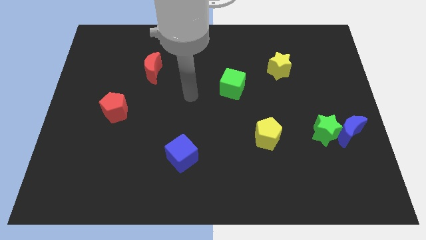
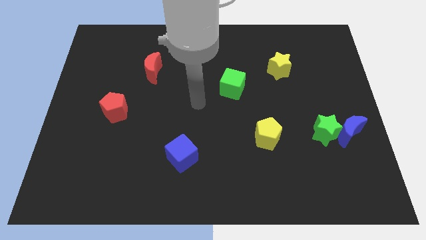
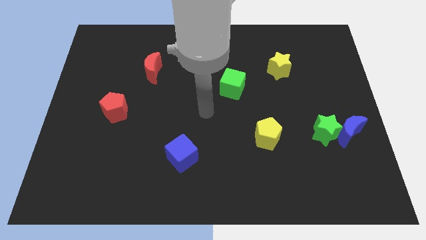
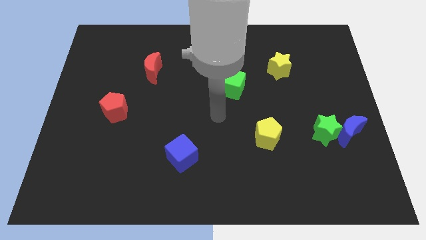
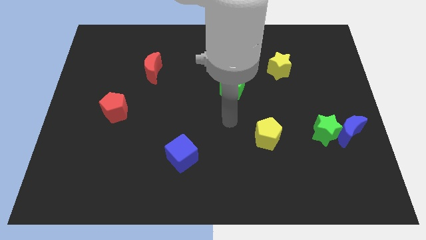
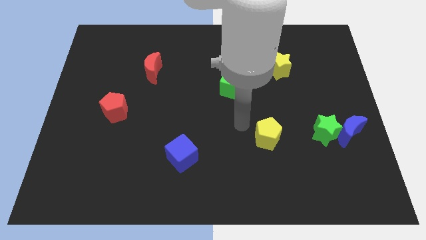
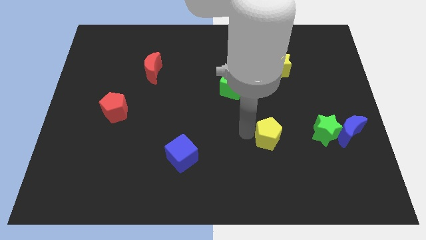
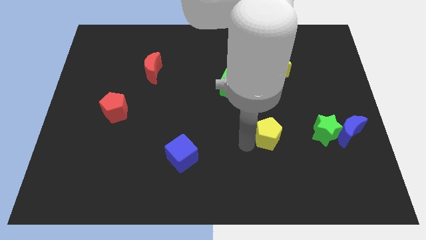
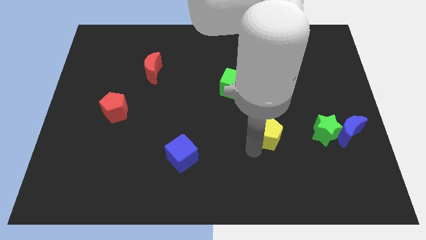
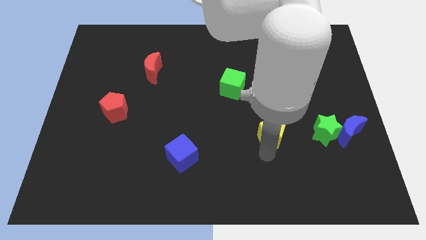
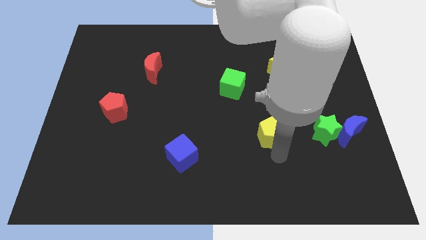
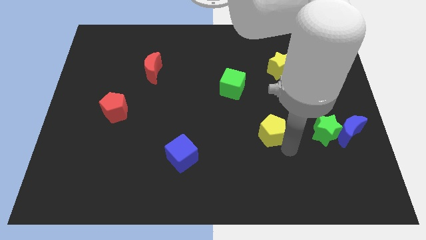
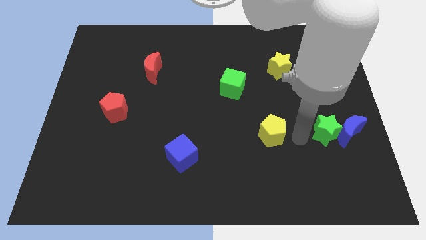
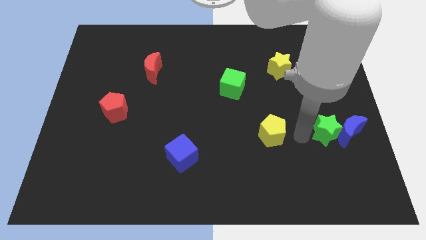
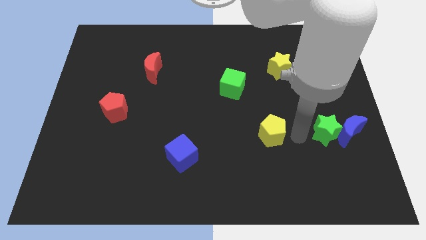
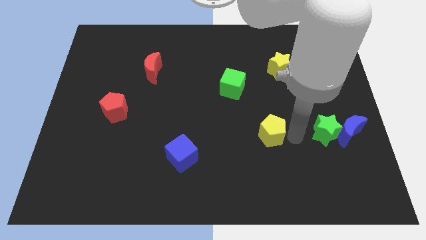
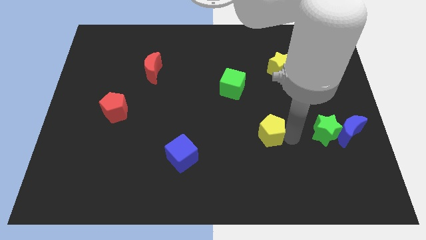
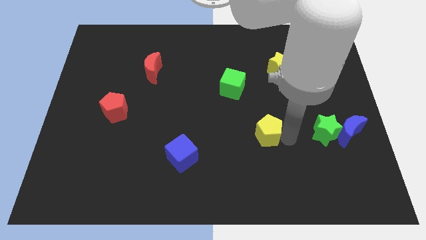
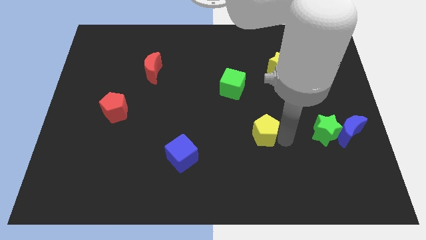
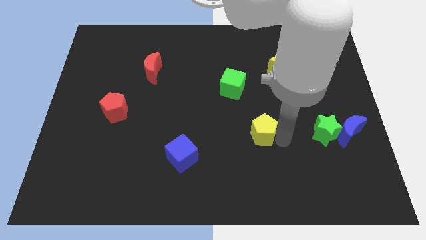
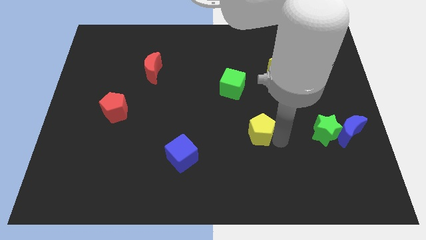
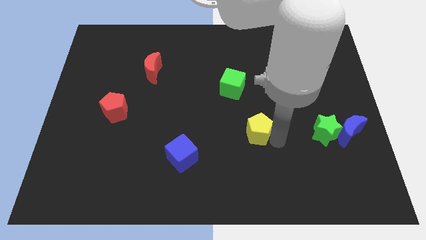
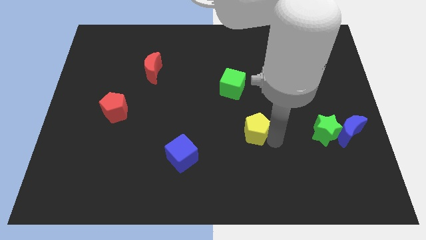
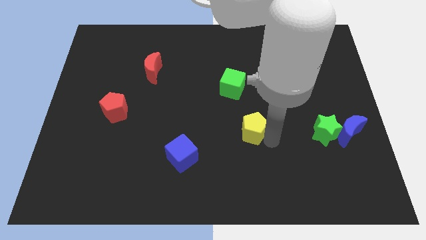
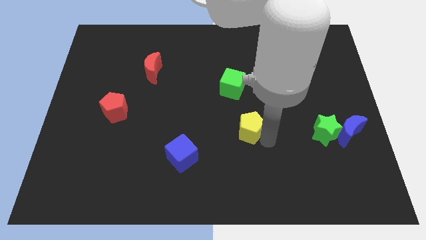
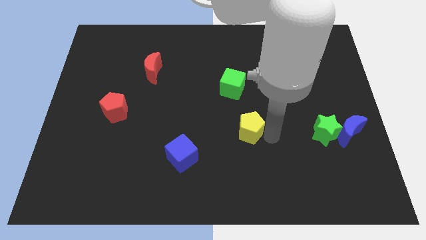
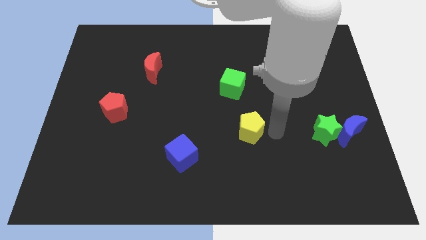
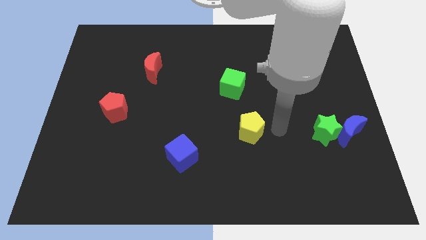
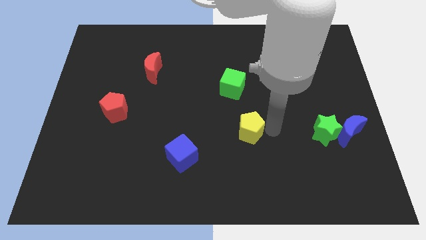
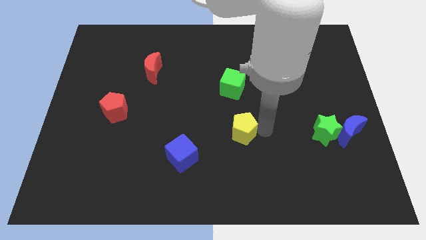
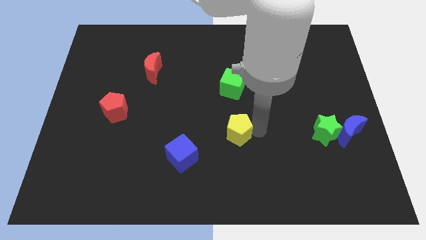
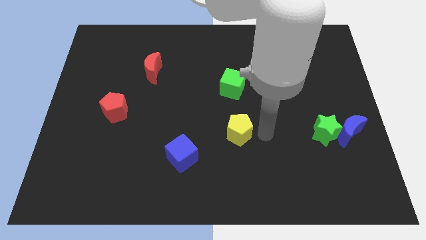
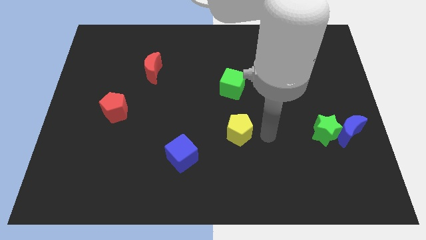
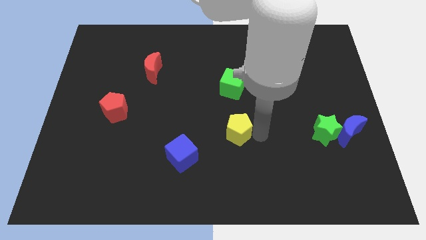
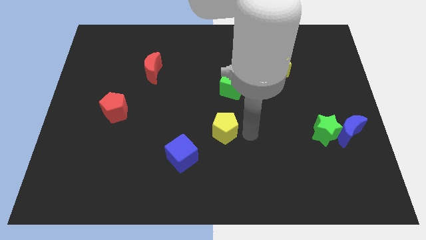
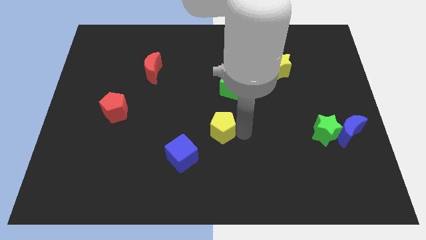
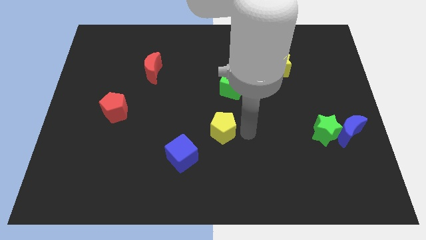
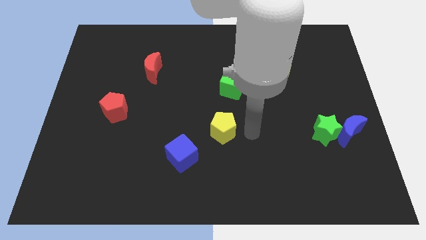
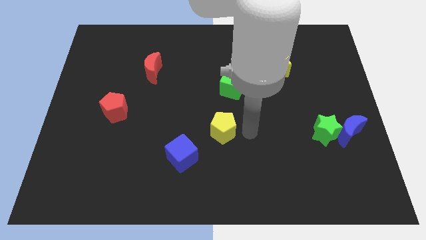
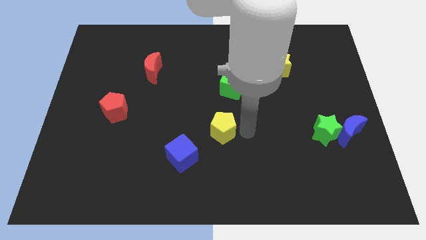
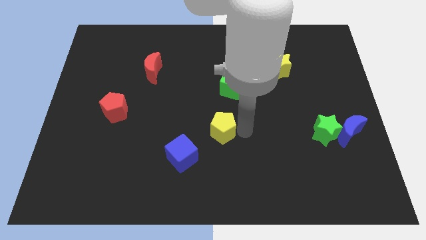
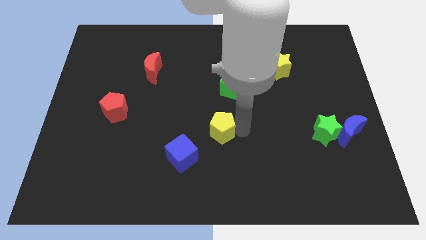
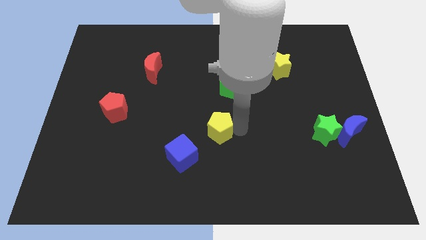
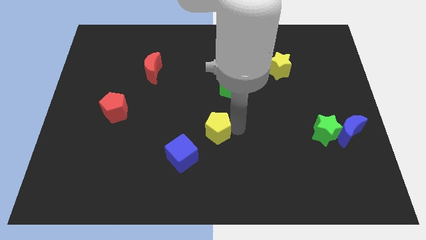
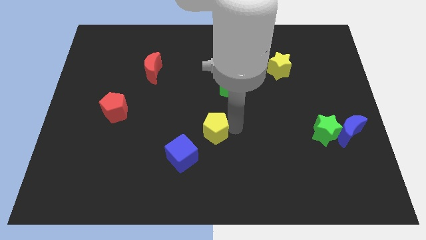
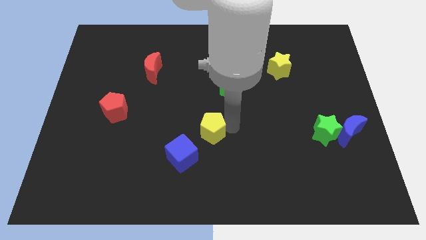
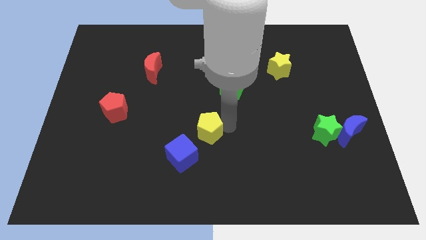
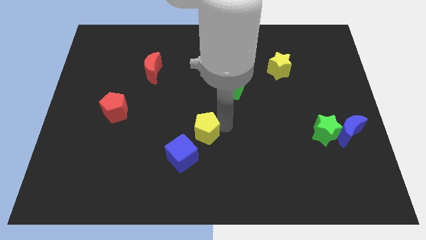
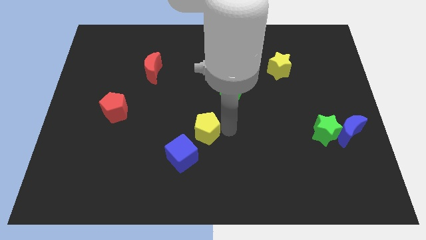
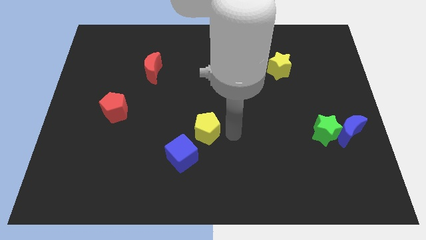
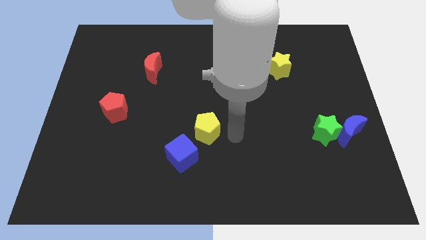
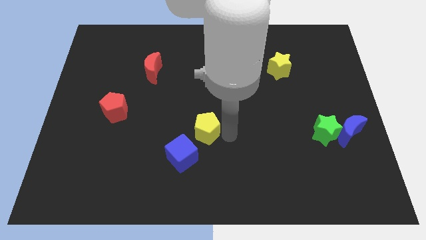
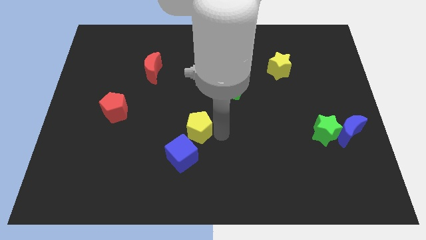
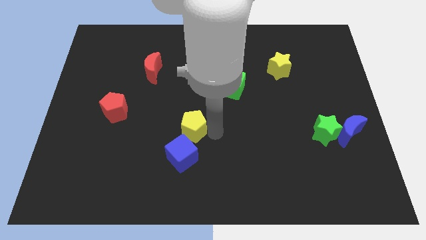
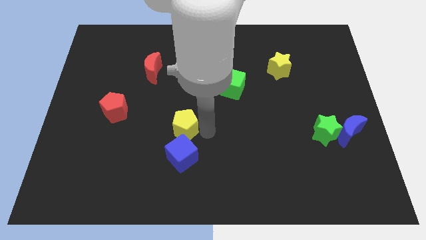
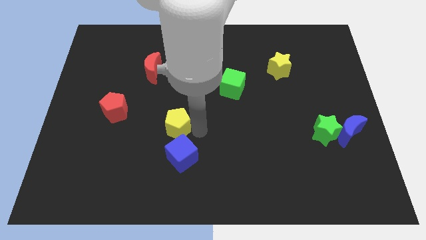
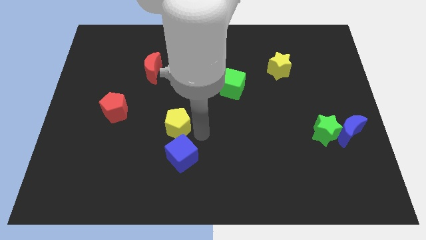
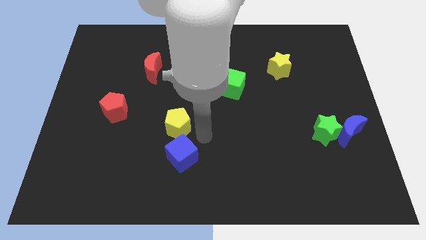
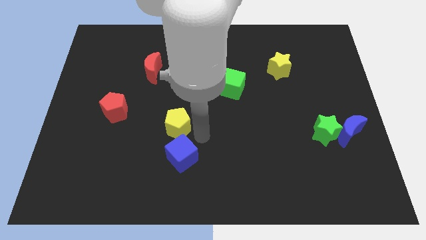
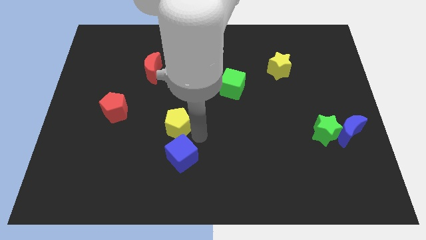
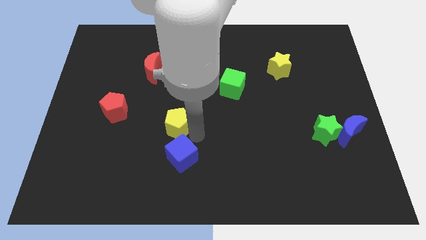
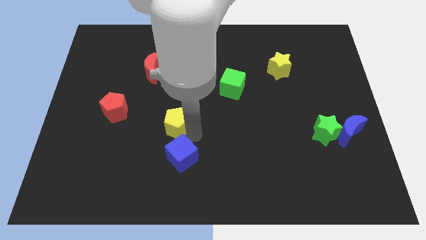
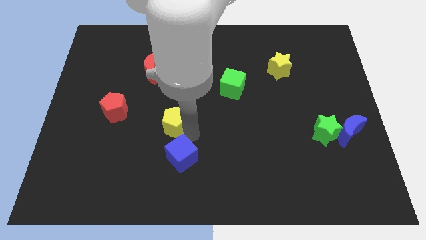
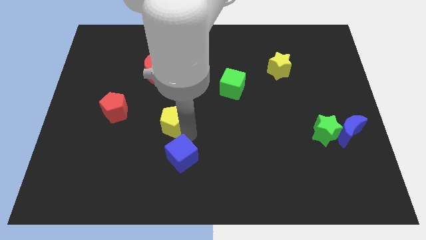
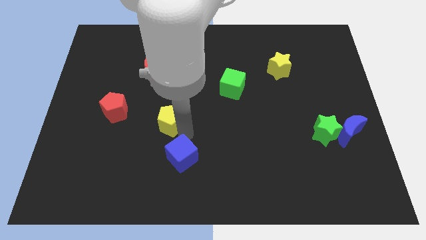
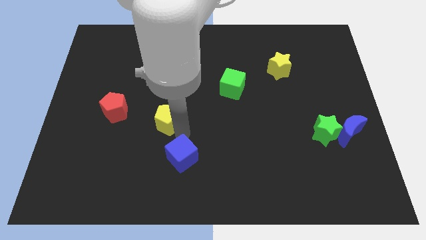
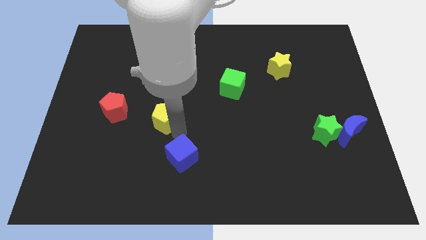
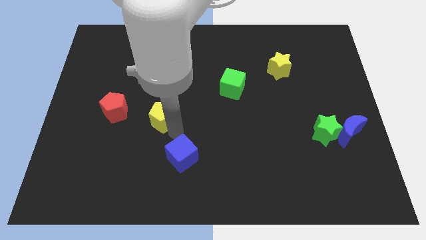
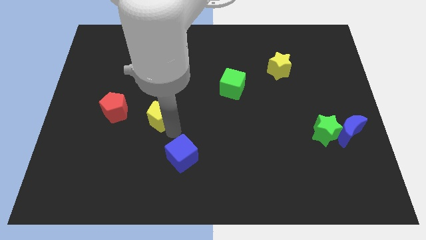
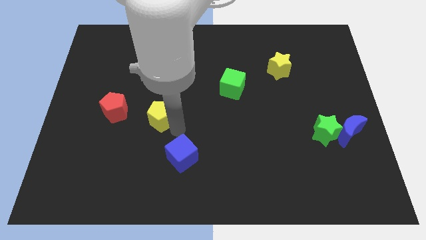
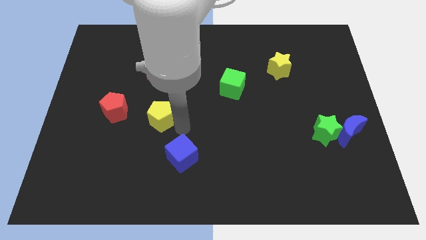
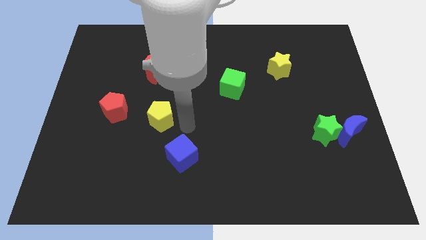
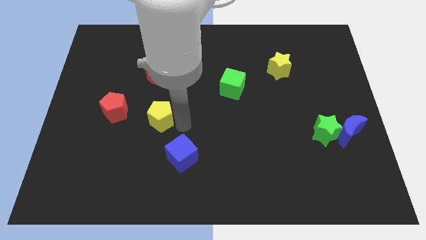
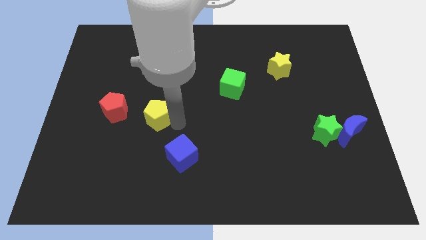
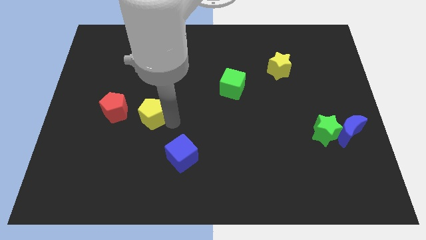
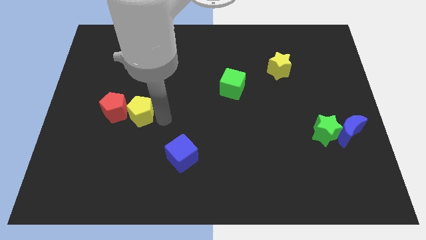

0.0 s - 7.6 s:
slide the yellow pentagon to the red pentagon

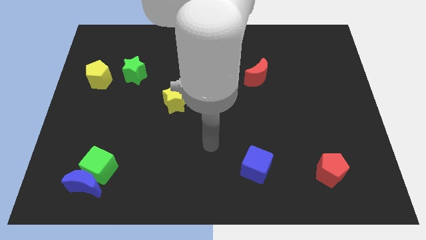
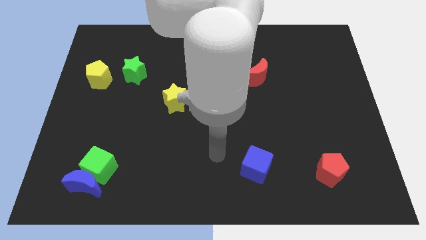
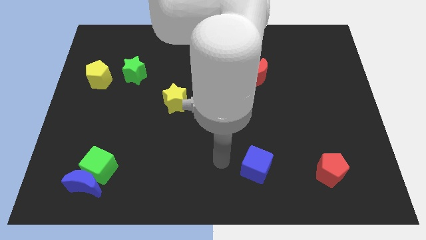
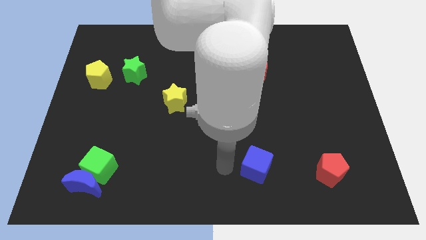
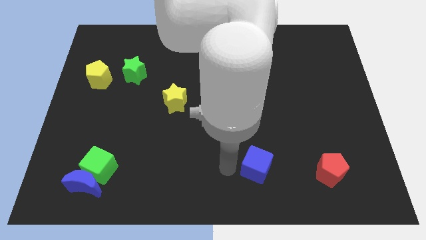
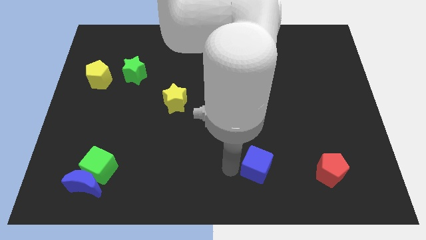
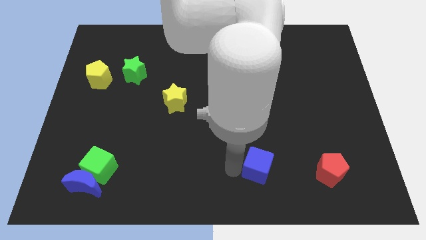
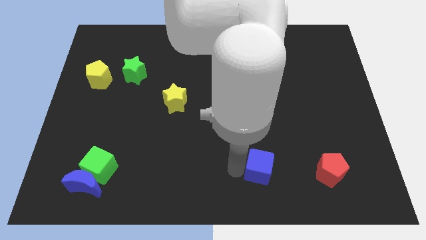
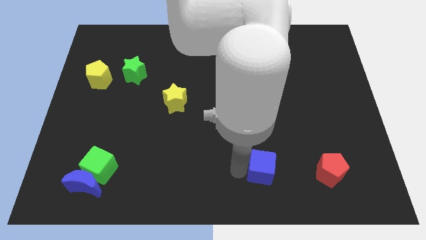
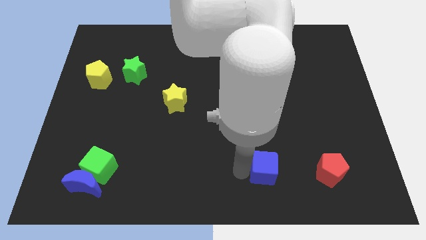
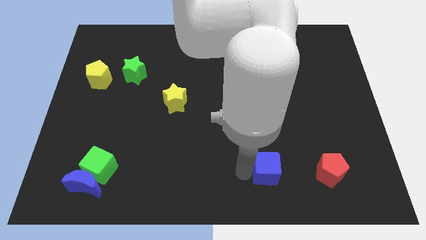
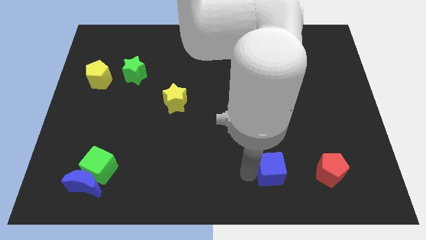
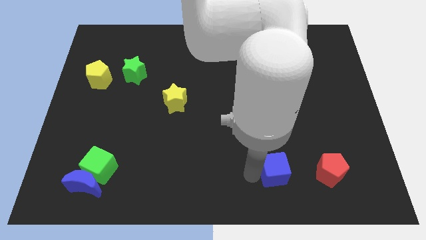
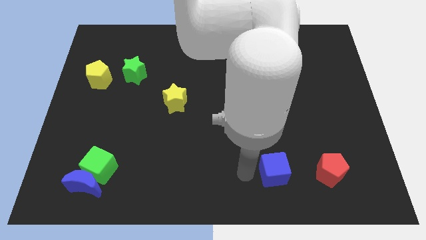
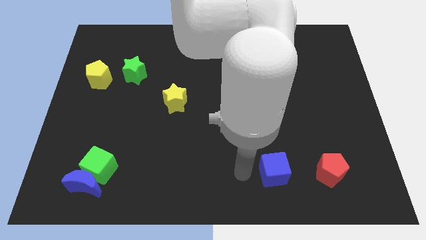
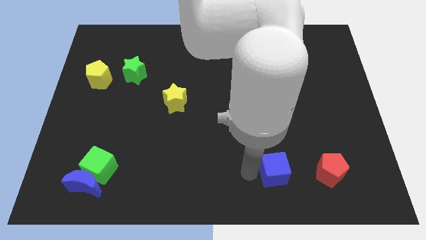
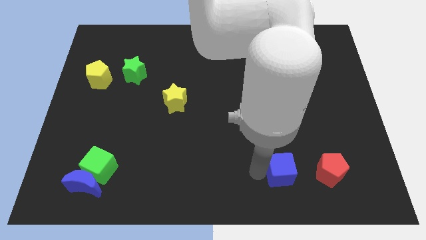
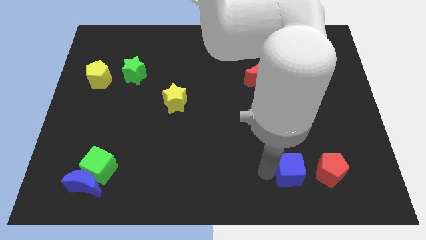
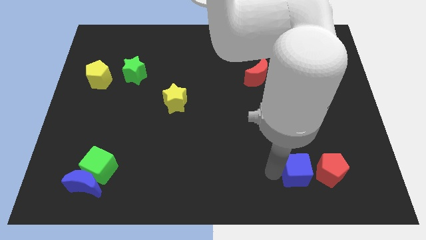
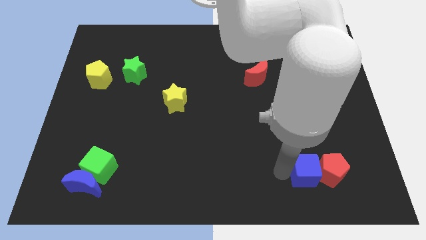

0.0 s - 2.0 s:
put the blue cube towards the red pentagon
